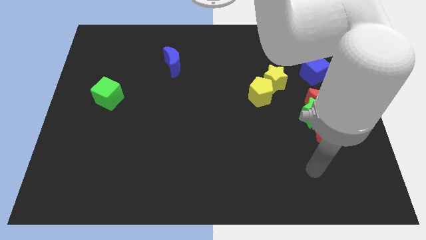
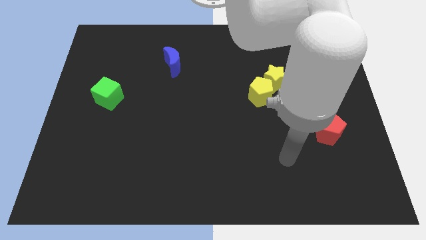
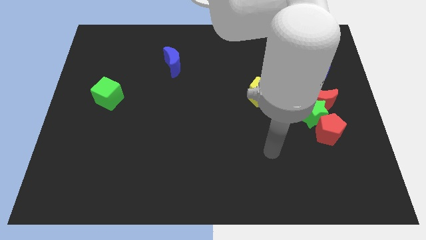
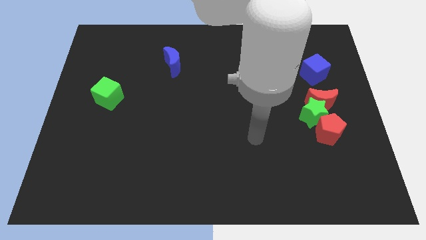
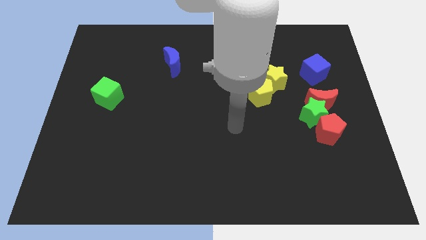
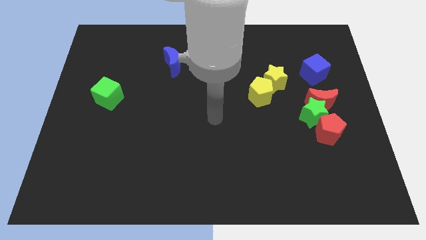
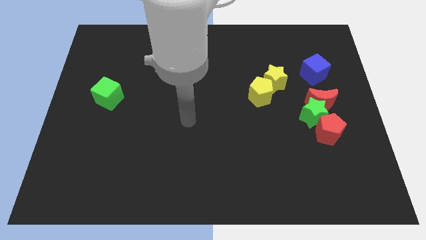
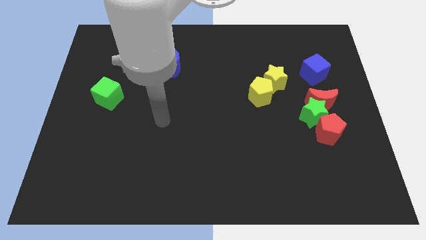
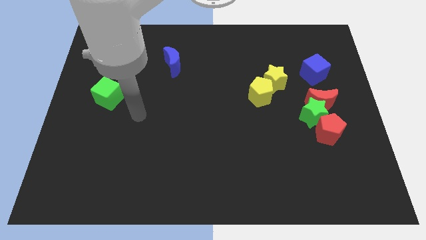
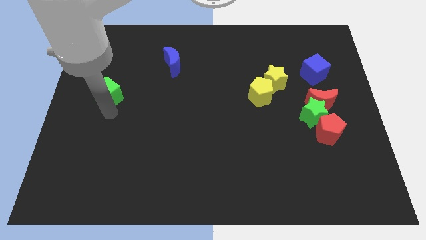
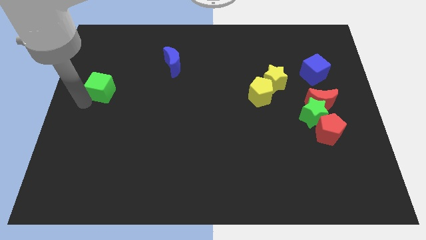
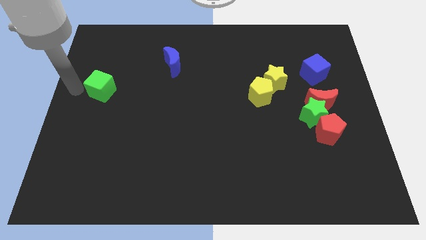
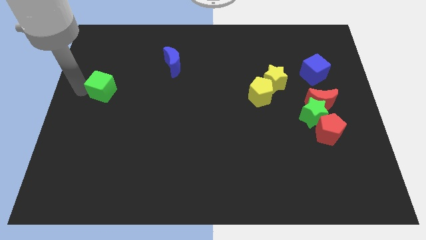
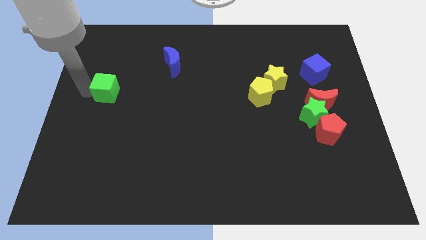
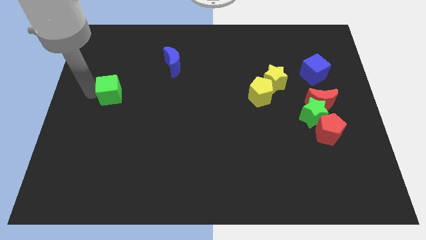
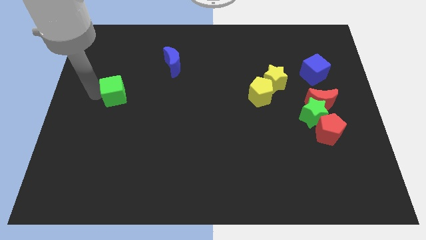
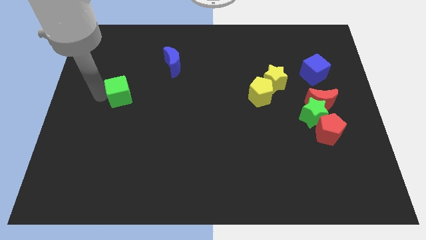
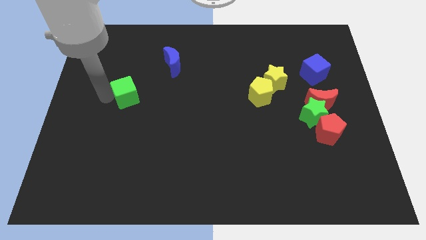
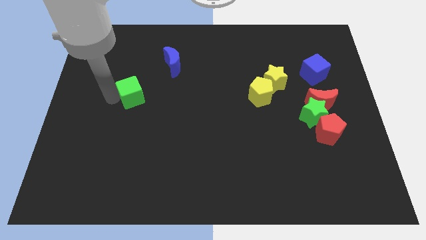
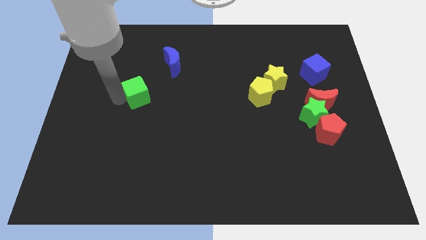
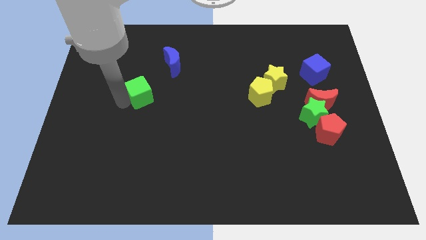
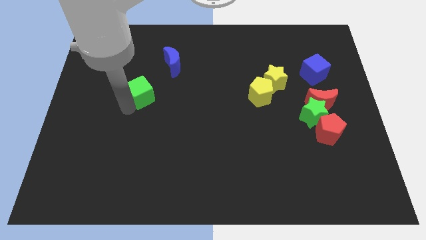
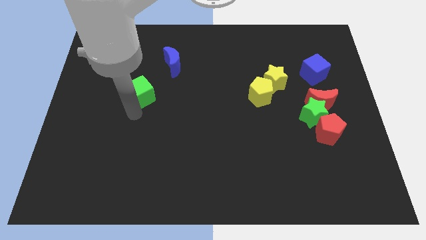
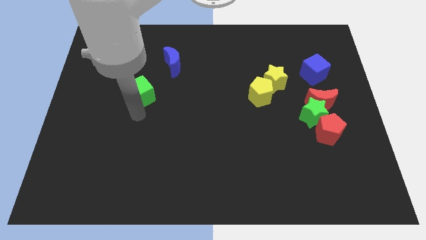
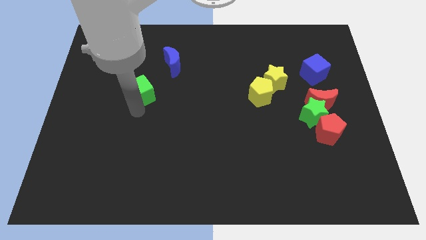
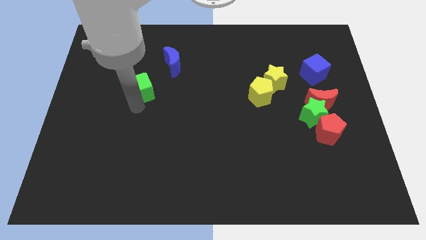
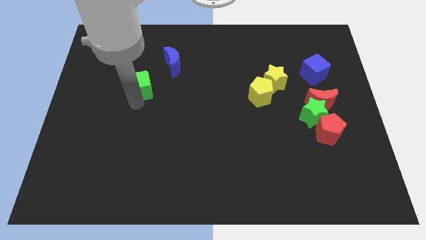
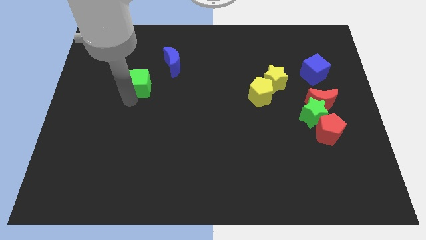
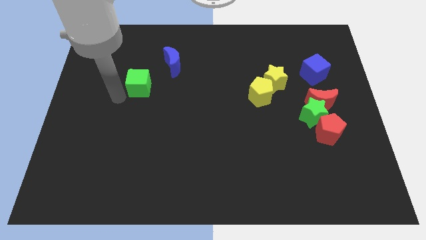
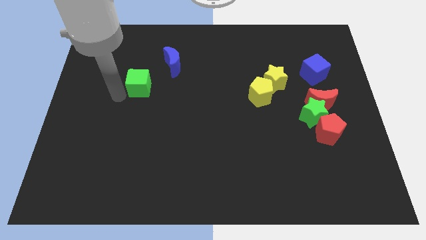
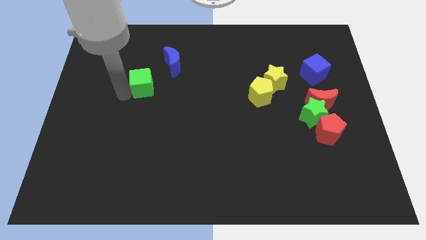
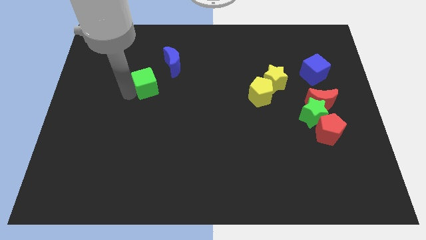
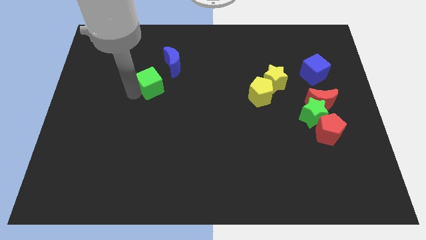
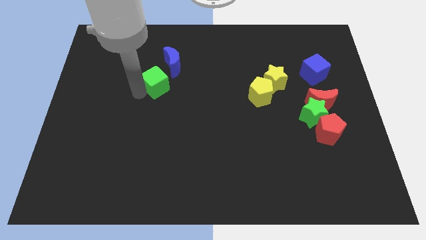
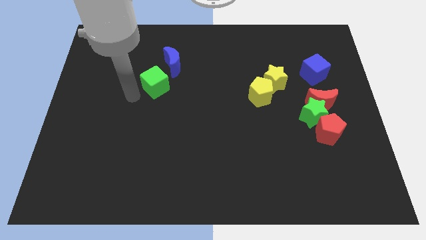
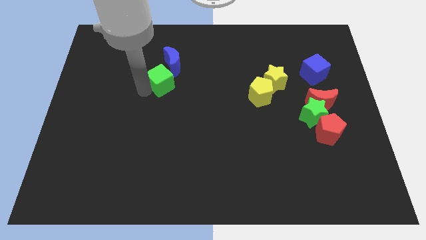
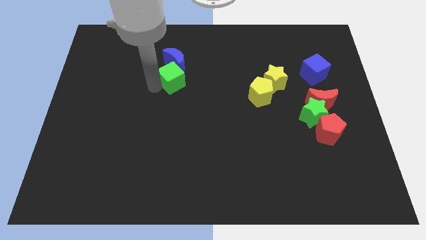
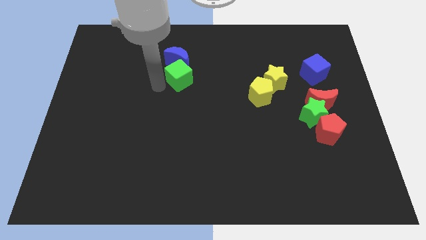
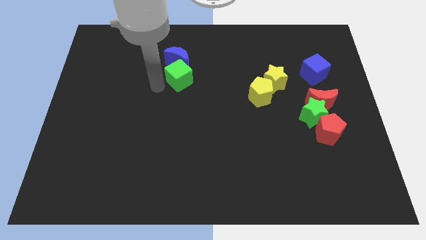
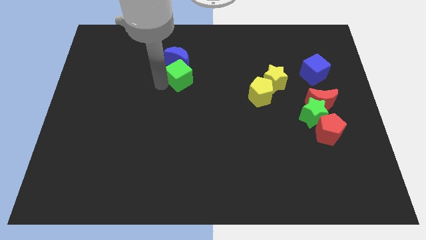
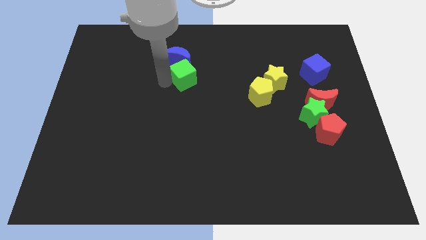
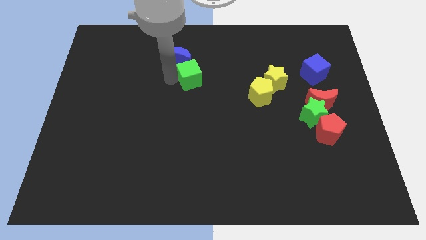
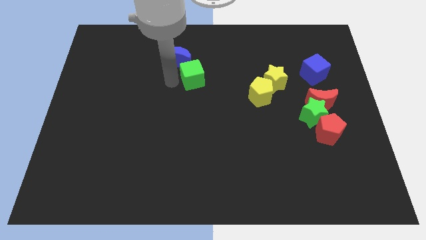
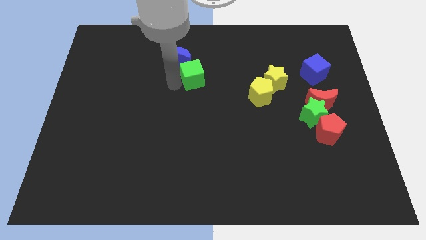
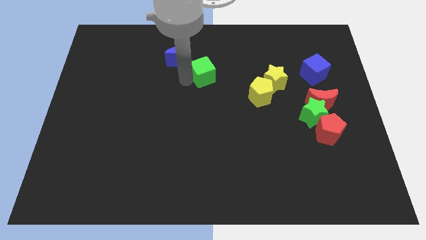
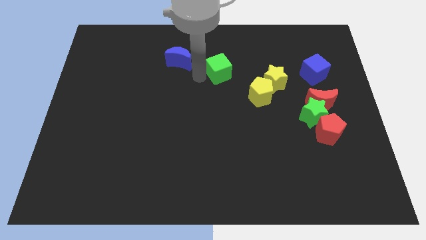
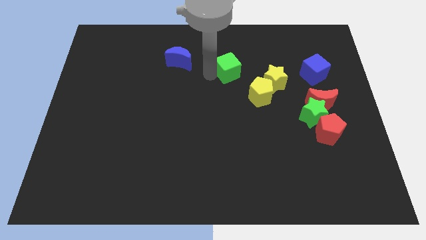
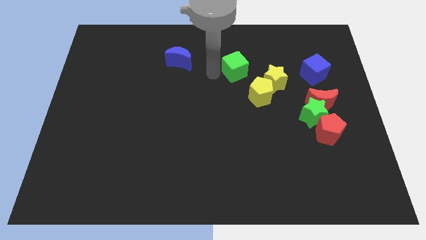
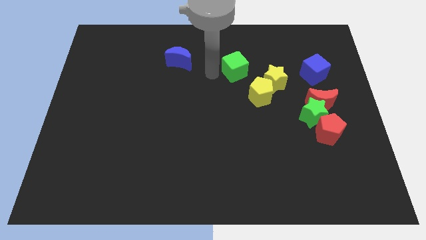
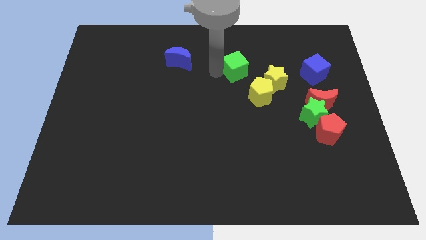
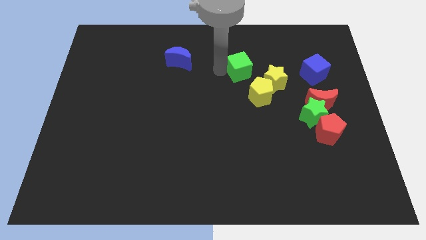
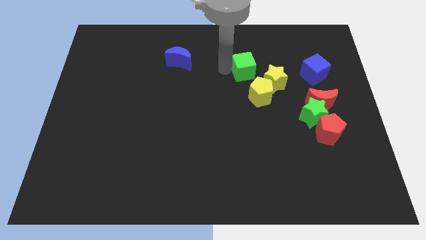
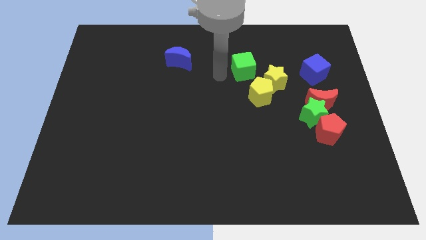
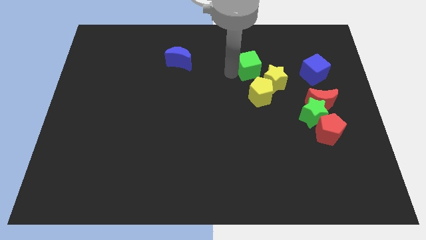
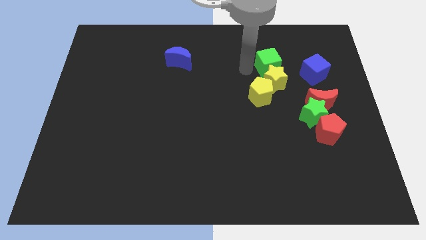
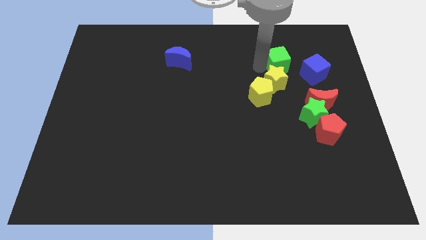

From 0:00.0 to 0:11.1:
slide the green cube to the top left of the blue cube

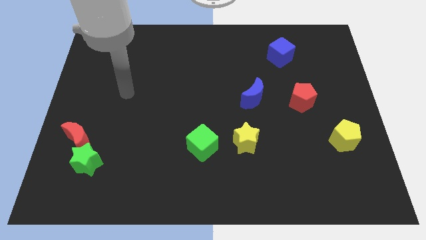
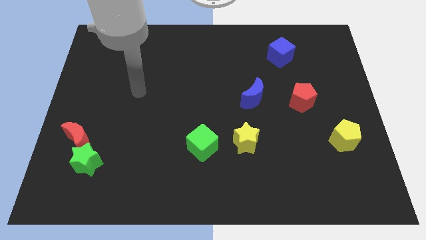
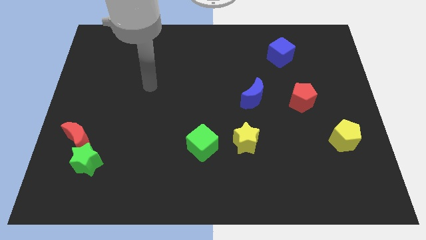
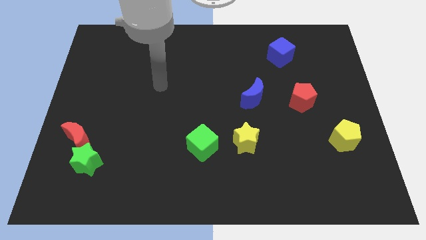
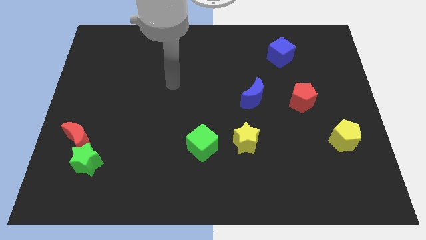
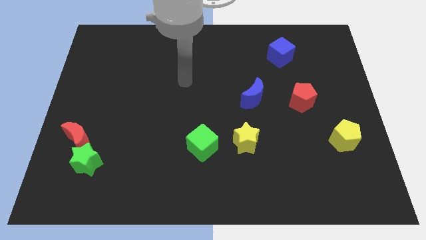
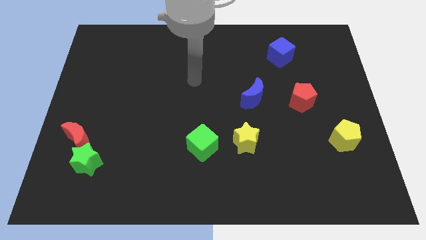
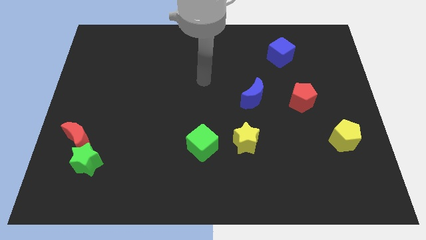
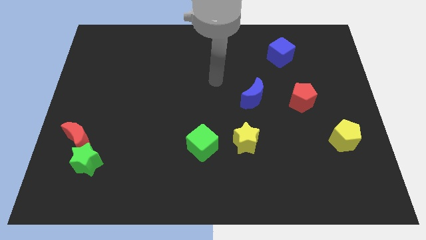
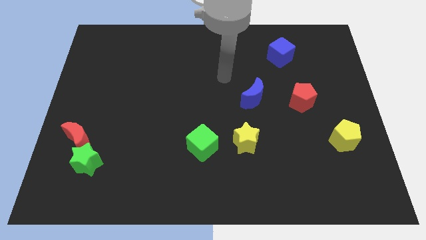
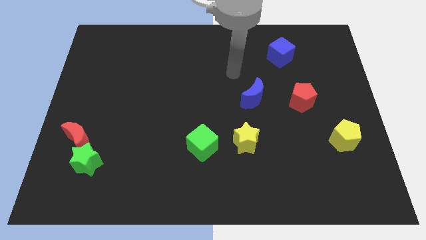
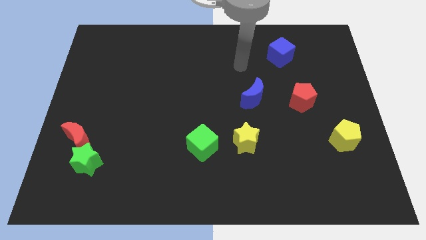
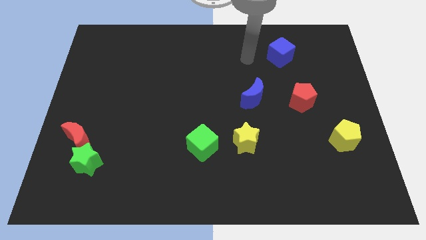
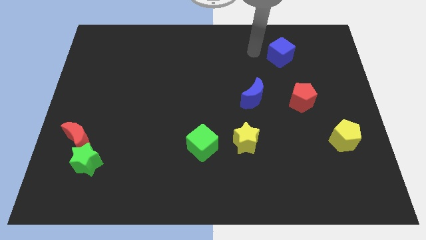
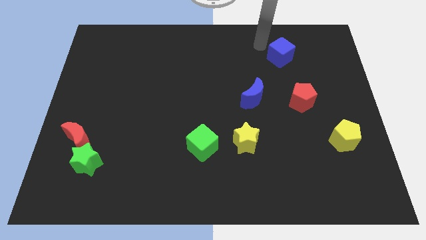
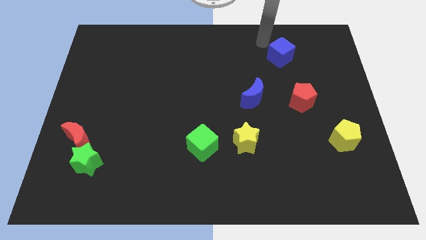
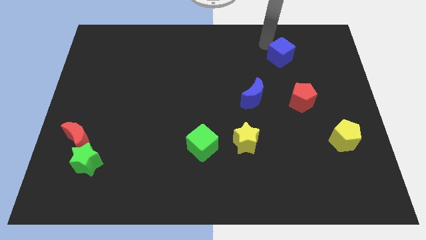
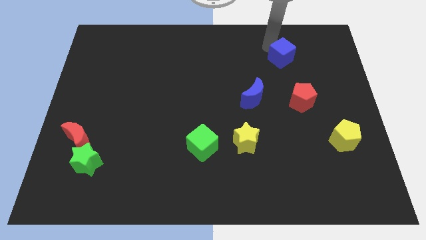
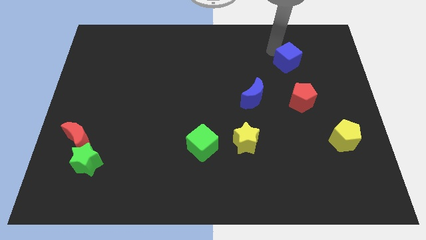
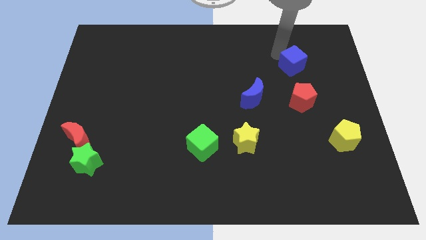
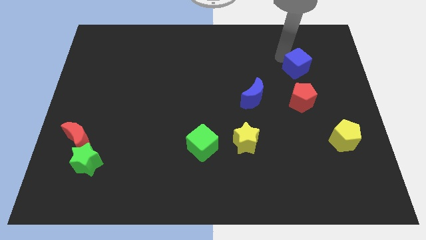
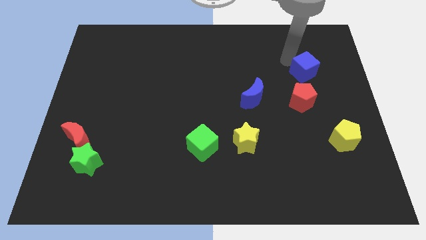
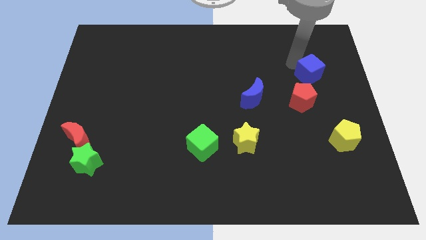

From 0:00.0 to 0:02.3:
slide the blue cube to the top right of the red pentagon
